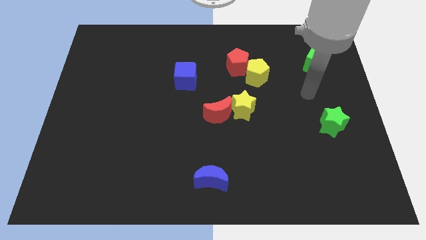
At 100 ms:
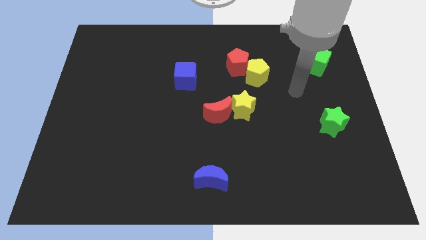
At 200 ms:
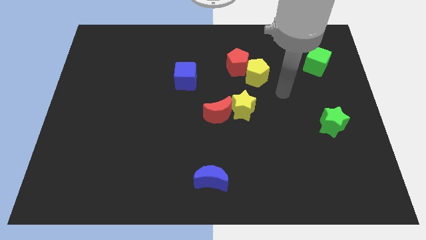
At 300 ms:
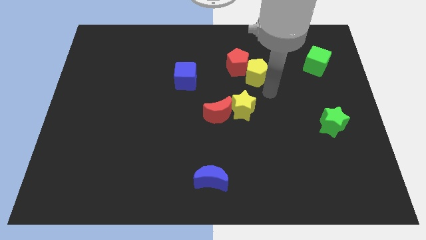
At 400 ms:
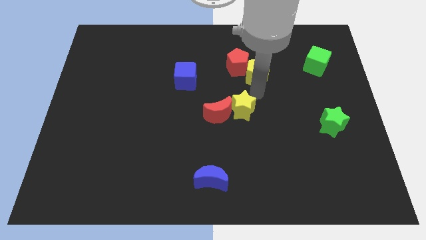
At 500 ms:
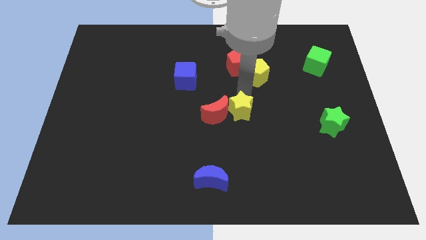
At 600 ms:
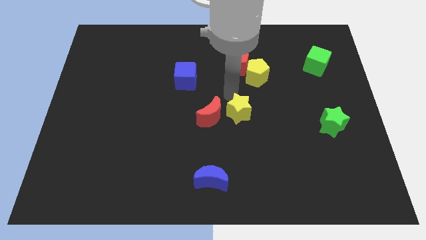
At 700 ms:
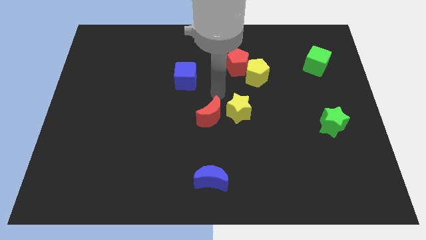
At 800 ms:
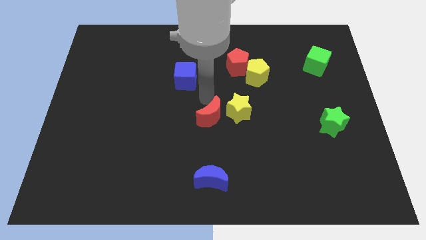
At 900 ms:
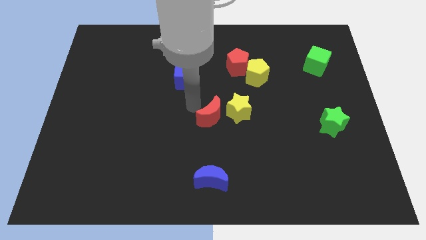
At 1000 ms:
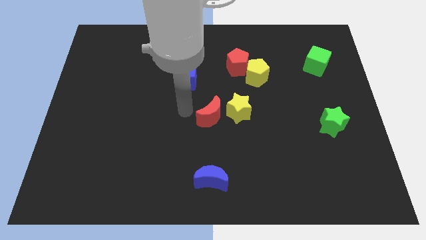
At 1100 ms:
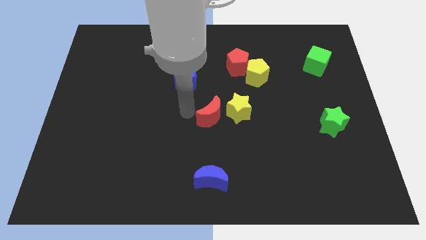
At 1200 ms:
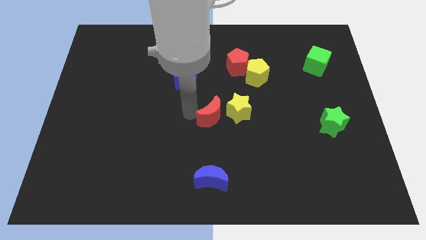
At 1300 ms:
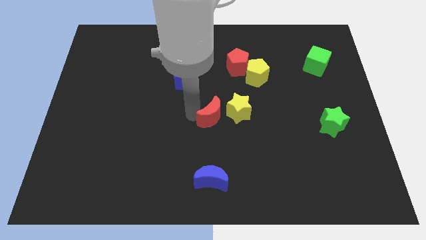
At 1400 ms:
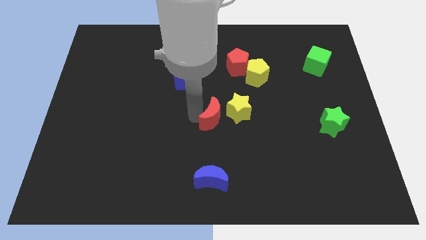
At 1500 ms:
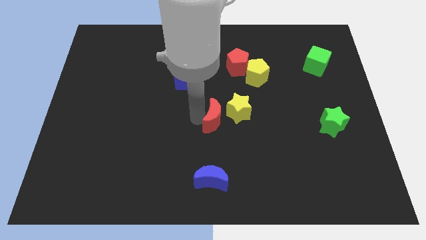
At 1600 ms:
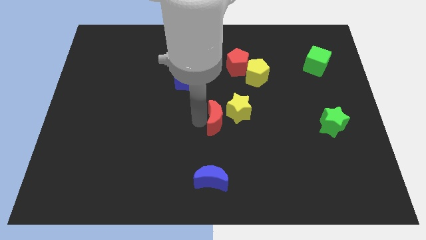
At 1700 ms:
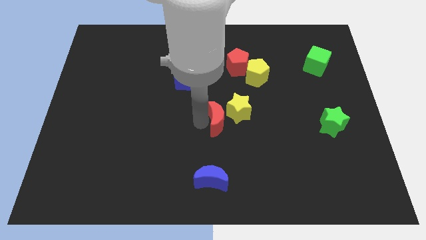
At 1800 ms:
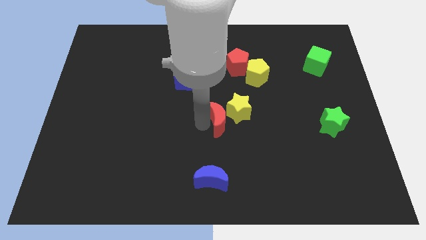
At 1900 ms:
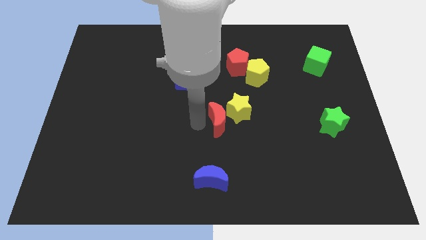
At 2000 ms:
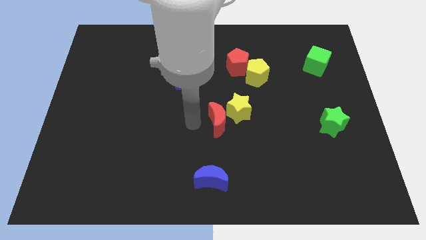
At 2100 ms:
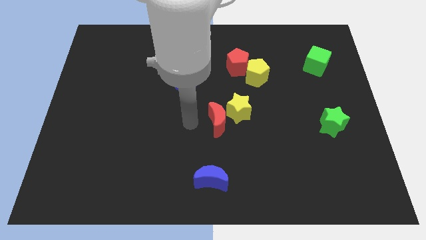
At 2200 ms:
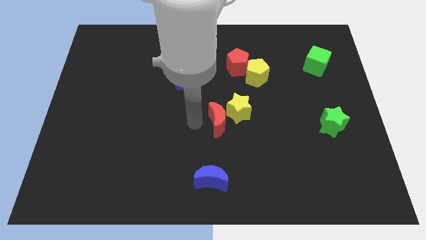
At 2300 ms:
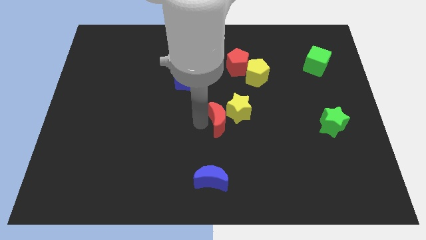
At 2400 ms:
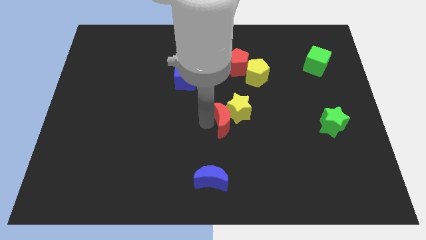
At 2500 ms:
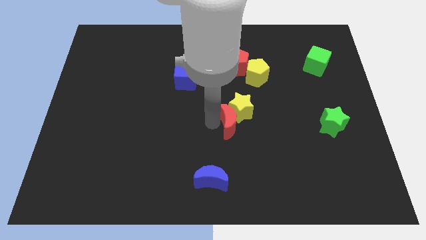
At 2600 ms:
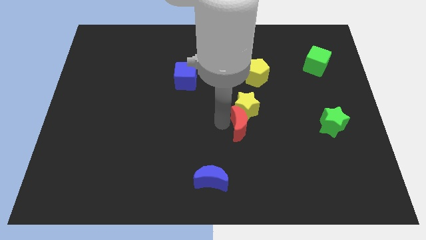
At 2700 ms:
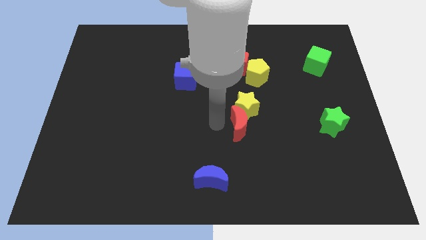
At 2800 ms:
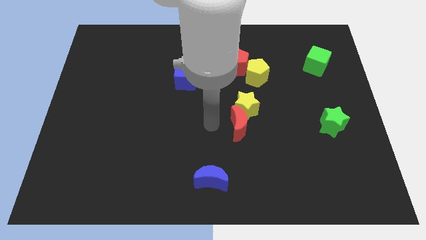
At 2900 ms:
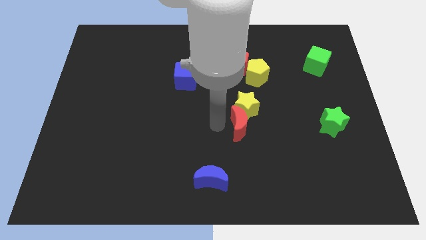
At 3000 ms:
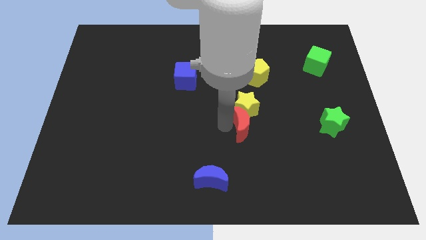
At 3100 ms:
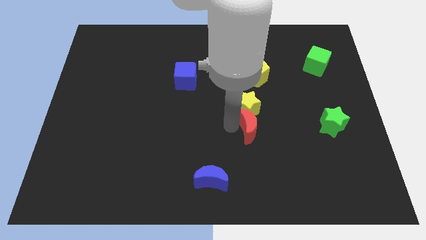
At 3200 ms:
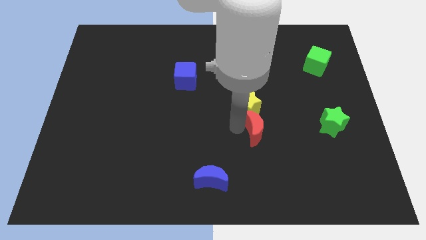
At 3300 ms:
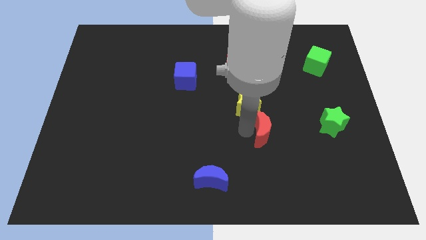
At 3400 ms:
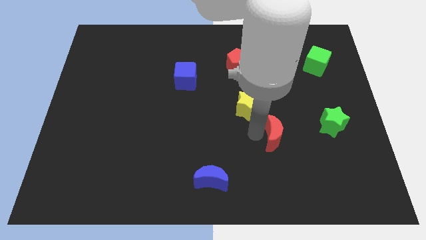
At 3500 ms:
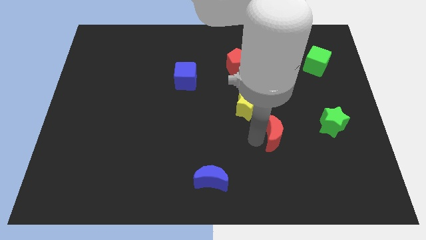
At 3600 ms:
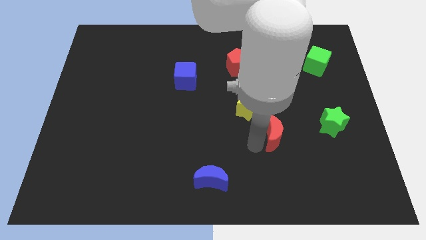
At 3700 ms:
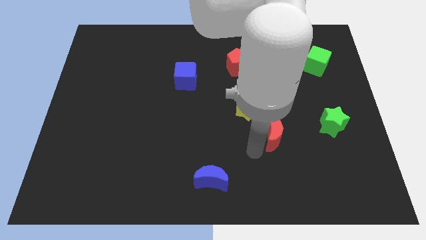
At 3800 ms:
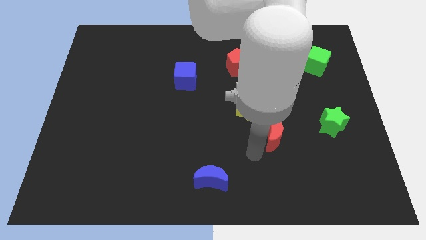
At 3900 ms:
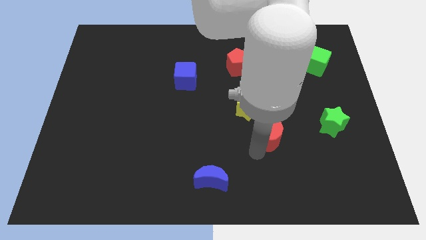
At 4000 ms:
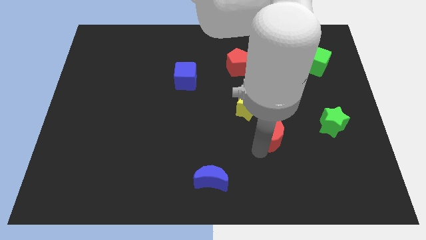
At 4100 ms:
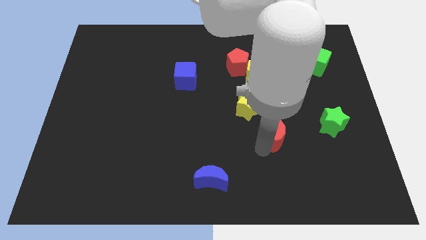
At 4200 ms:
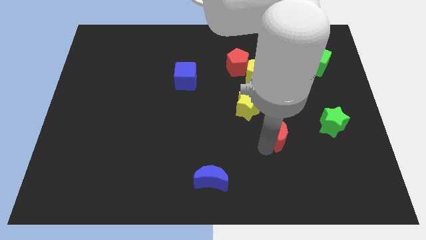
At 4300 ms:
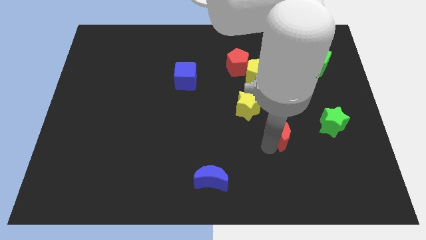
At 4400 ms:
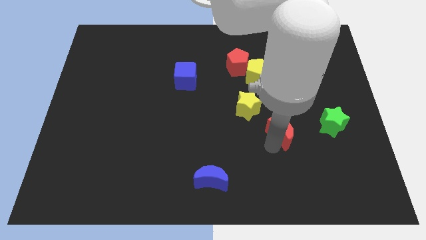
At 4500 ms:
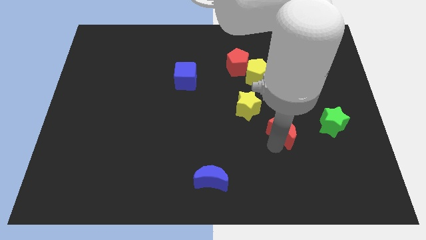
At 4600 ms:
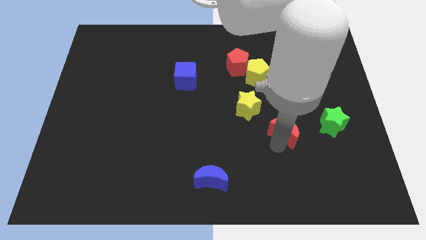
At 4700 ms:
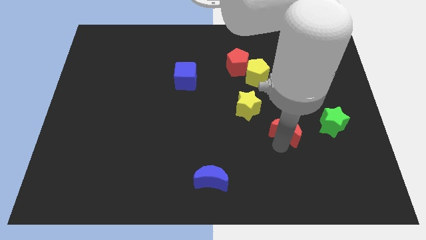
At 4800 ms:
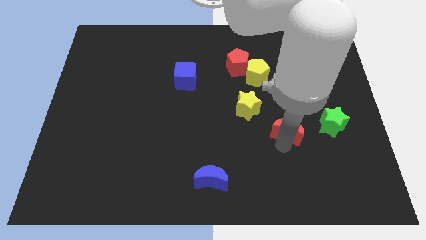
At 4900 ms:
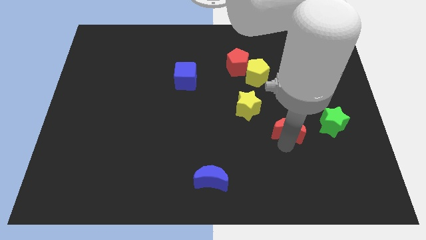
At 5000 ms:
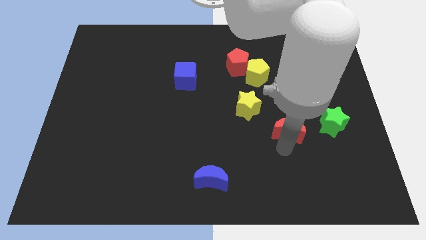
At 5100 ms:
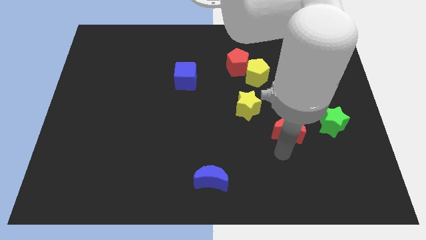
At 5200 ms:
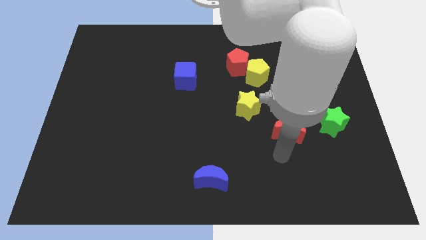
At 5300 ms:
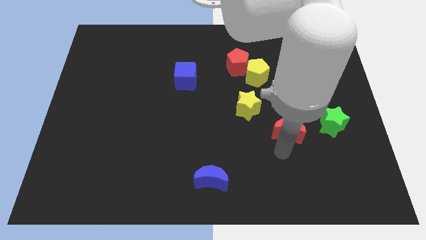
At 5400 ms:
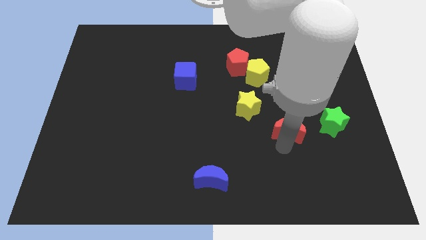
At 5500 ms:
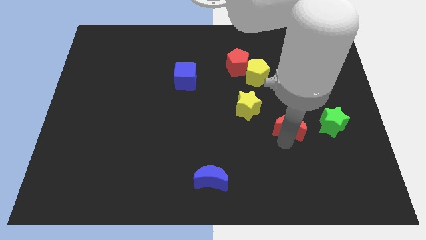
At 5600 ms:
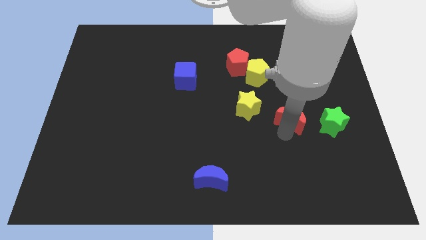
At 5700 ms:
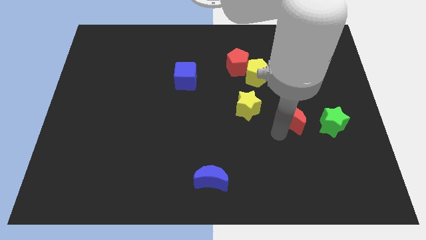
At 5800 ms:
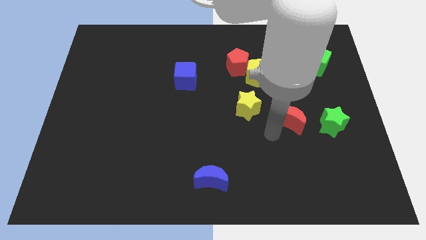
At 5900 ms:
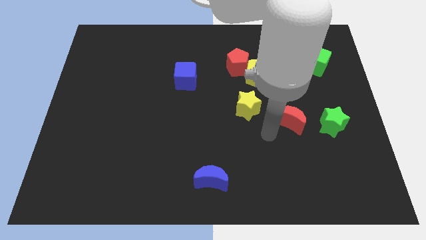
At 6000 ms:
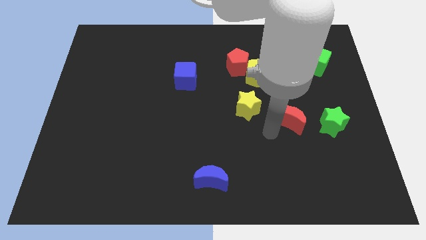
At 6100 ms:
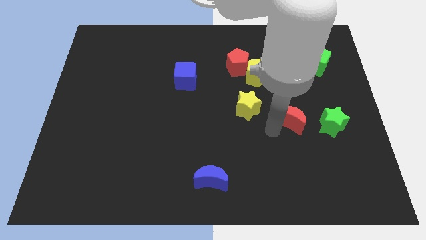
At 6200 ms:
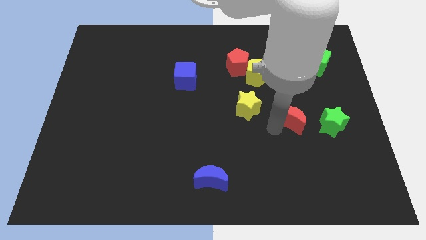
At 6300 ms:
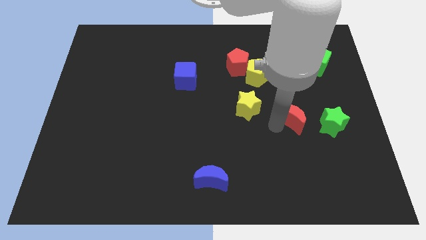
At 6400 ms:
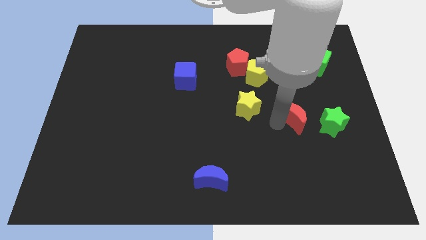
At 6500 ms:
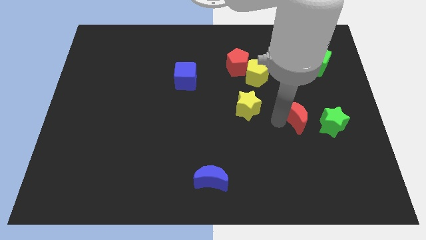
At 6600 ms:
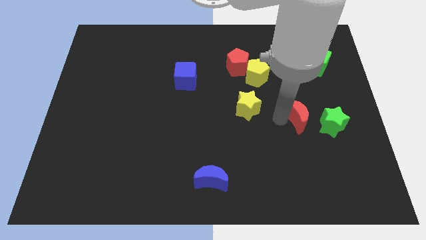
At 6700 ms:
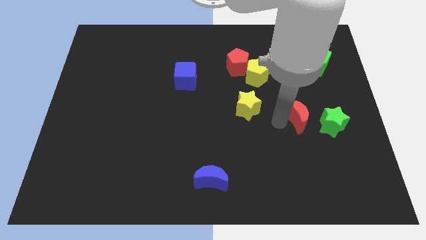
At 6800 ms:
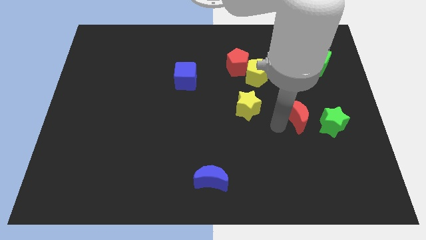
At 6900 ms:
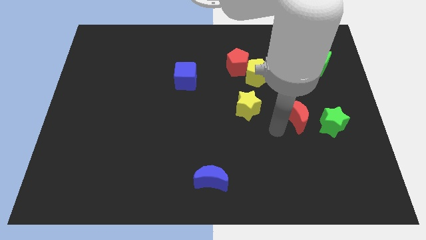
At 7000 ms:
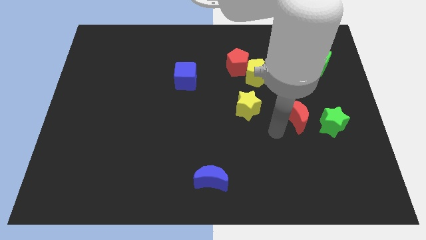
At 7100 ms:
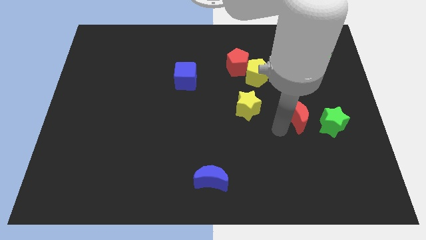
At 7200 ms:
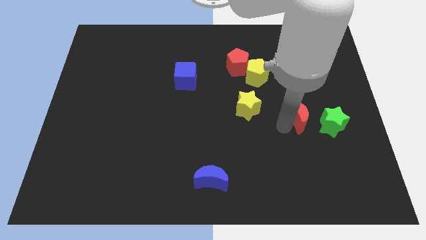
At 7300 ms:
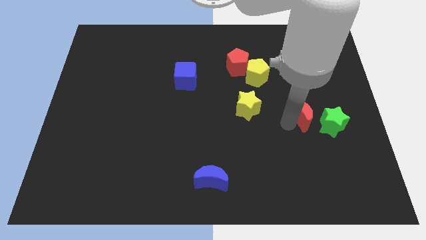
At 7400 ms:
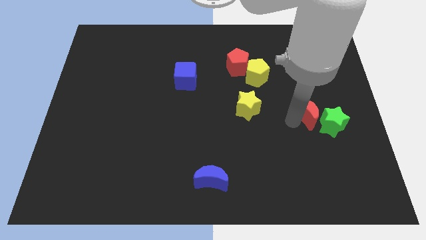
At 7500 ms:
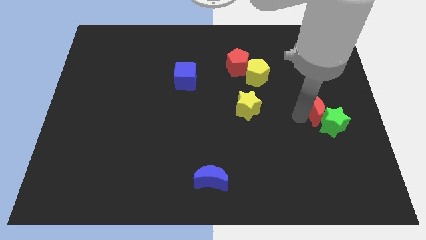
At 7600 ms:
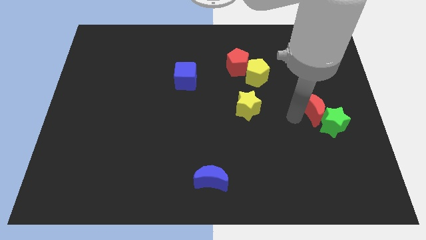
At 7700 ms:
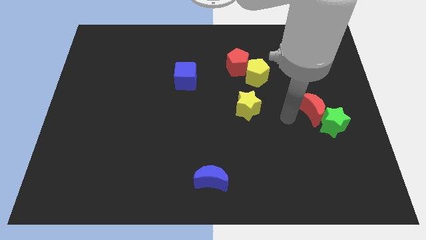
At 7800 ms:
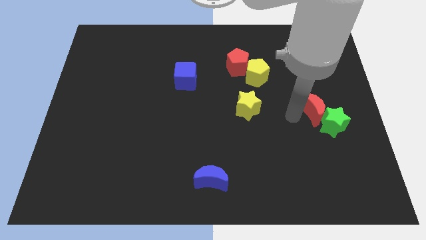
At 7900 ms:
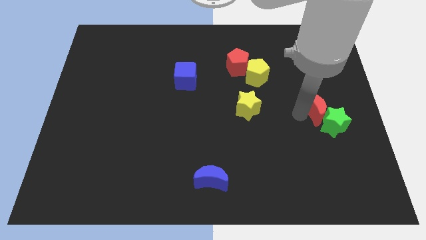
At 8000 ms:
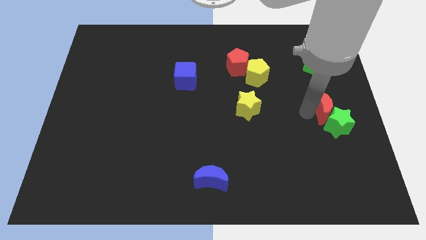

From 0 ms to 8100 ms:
put the red moon to the center right
